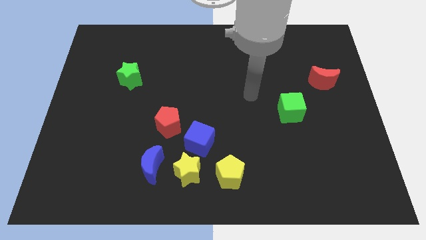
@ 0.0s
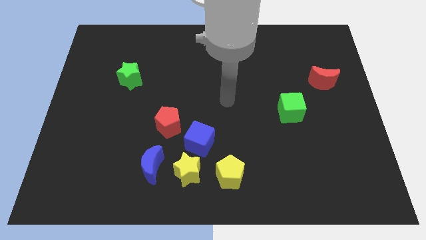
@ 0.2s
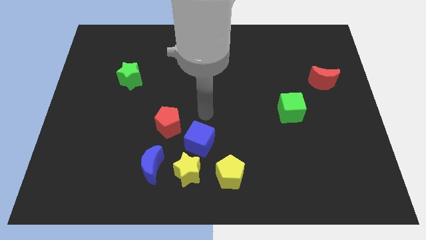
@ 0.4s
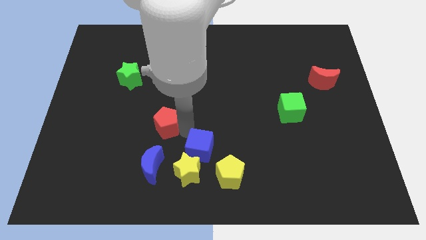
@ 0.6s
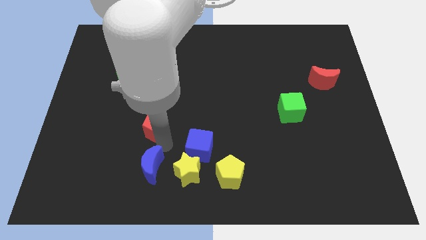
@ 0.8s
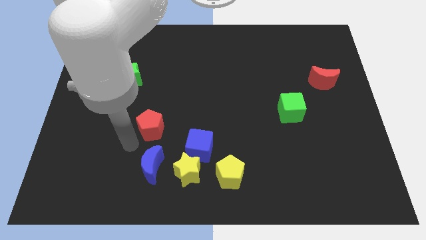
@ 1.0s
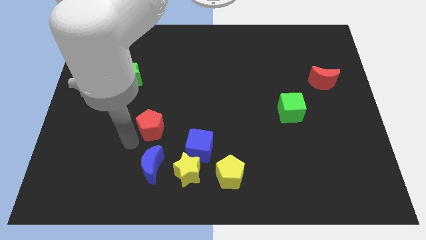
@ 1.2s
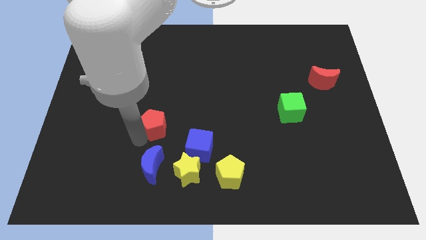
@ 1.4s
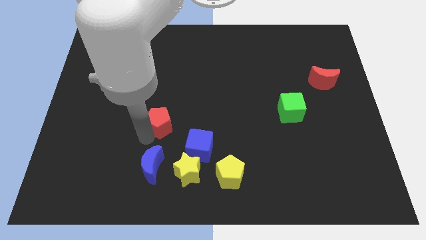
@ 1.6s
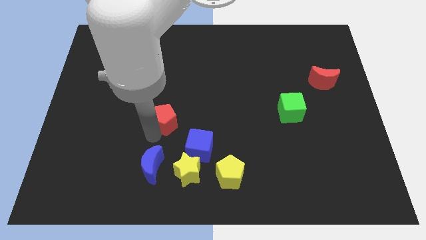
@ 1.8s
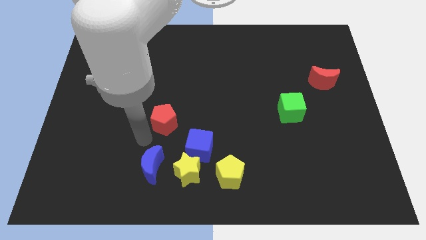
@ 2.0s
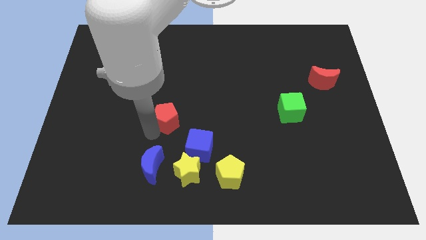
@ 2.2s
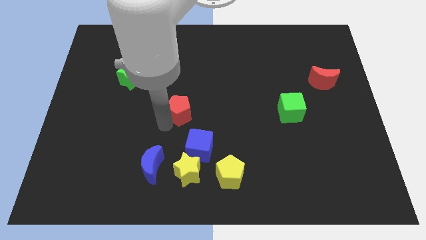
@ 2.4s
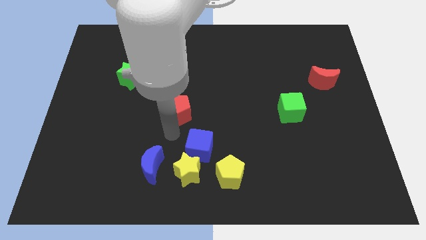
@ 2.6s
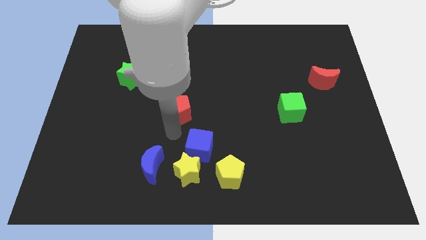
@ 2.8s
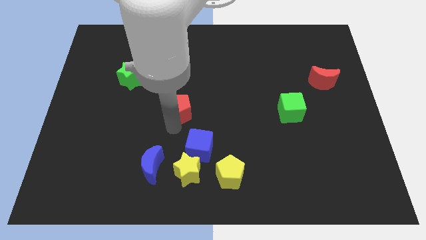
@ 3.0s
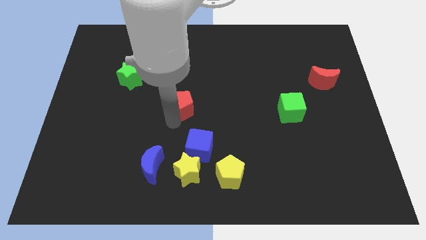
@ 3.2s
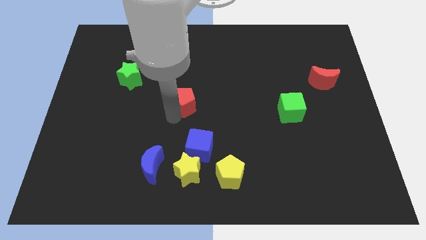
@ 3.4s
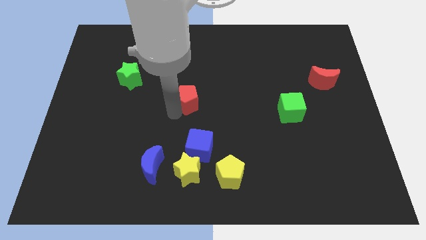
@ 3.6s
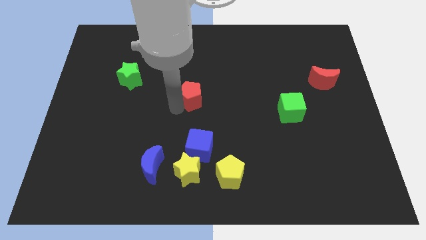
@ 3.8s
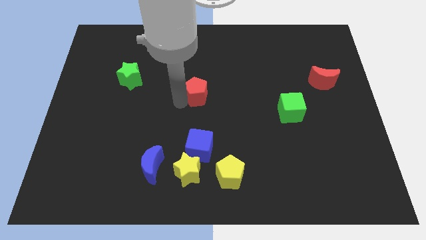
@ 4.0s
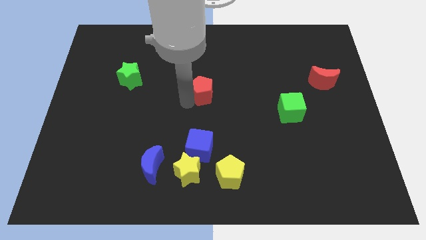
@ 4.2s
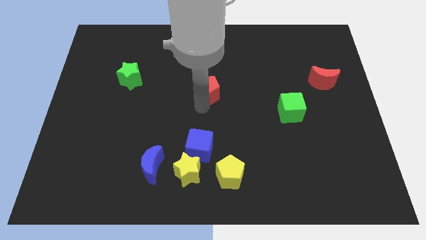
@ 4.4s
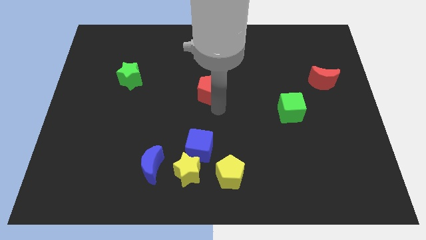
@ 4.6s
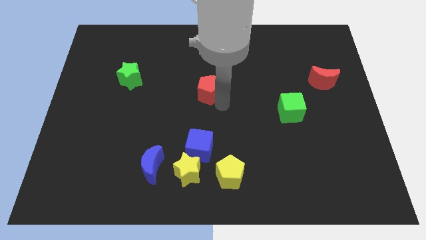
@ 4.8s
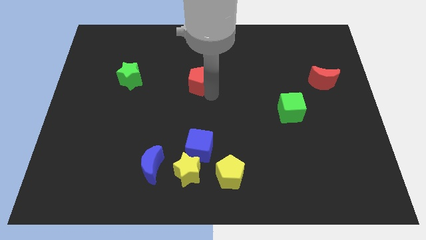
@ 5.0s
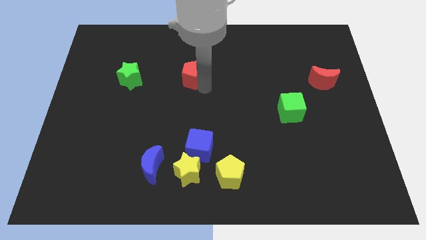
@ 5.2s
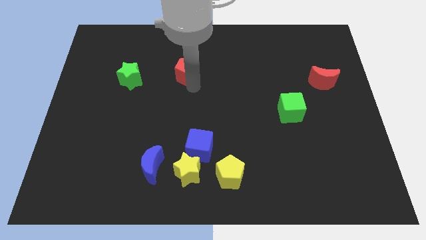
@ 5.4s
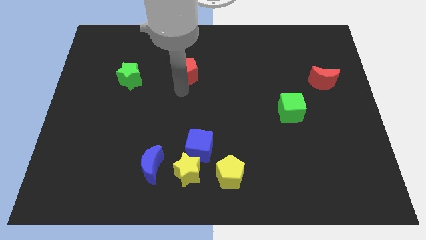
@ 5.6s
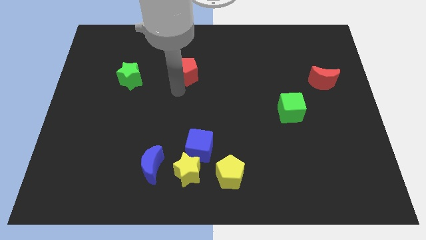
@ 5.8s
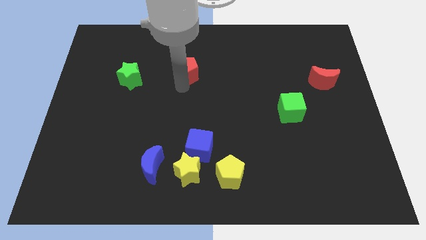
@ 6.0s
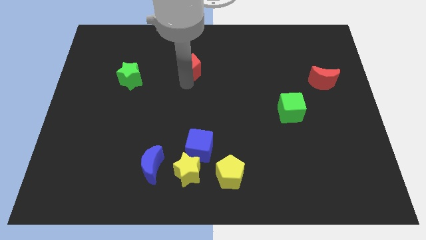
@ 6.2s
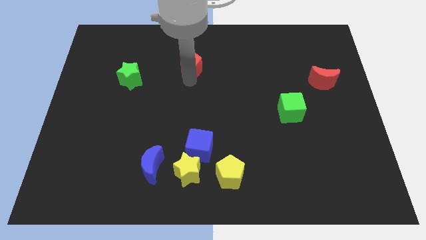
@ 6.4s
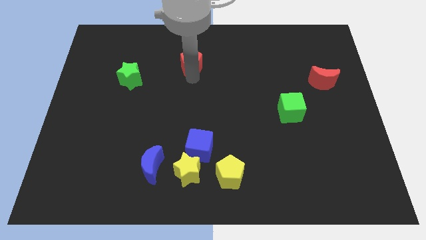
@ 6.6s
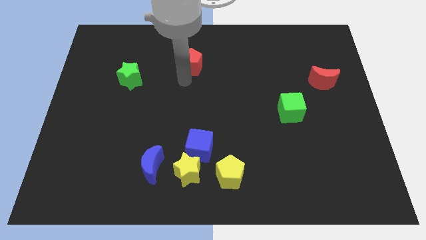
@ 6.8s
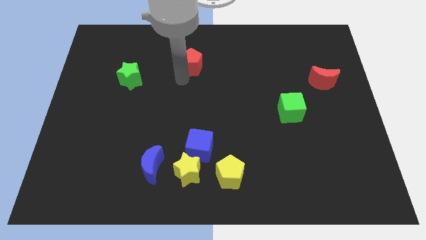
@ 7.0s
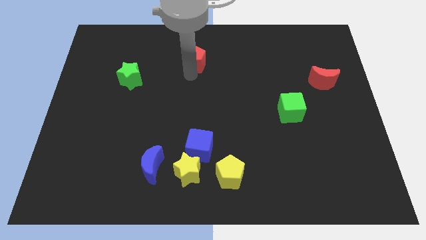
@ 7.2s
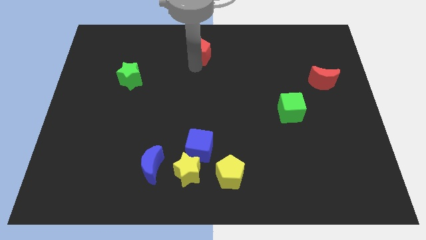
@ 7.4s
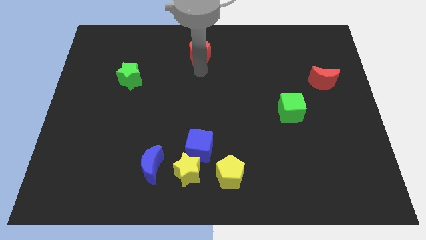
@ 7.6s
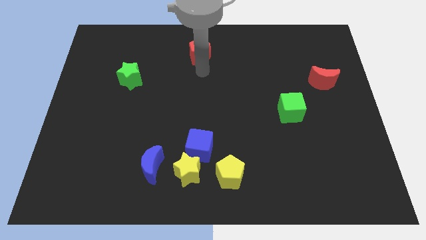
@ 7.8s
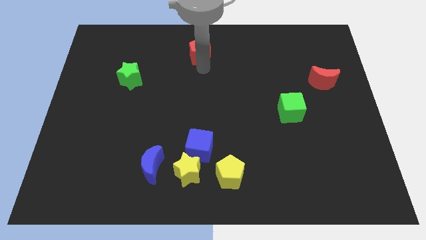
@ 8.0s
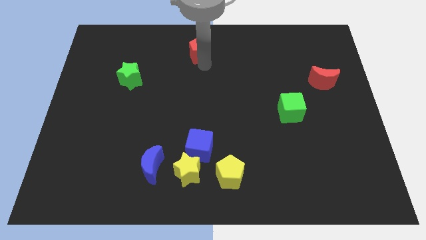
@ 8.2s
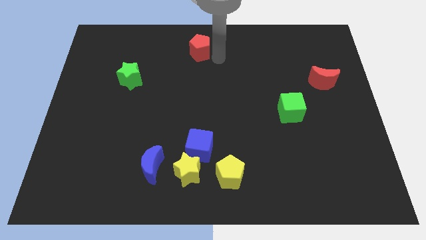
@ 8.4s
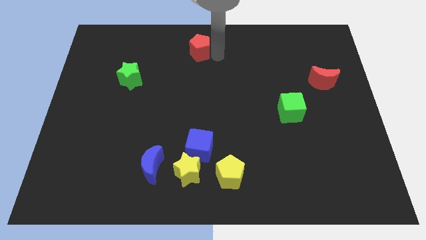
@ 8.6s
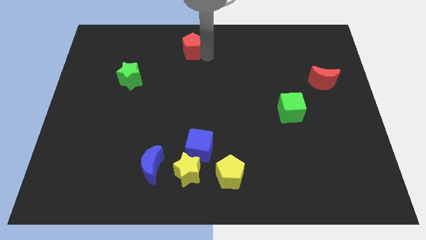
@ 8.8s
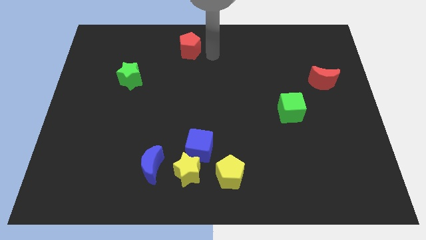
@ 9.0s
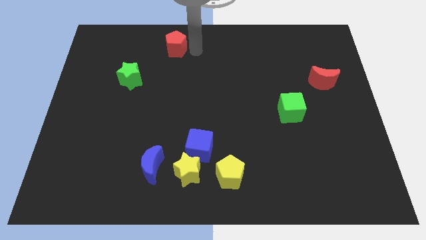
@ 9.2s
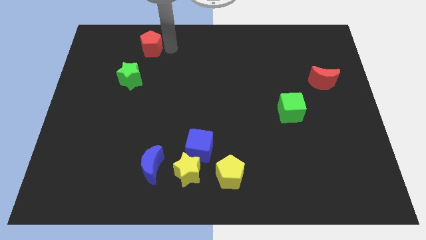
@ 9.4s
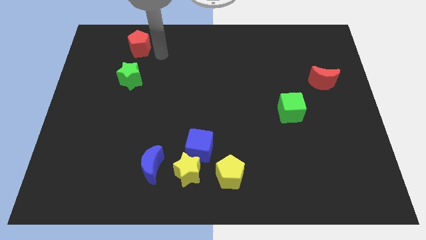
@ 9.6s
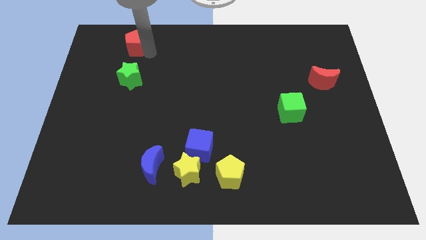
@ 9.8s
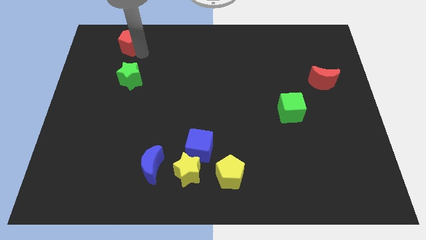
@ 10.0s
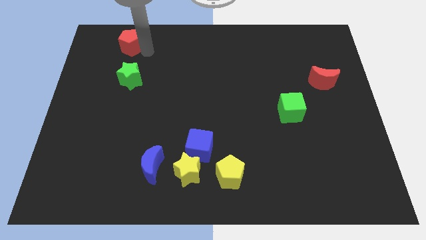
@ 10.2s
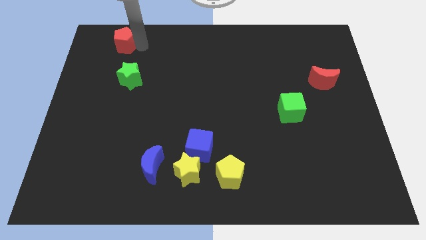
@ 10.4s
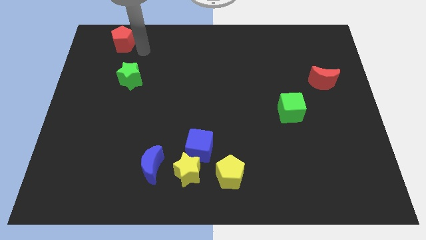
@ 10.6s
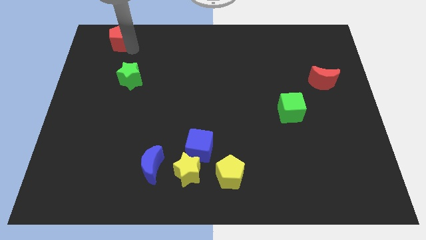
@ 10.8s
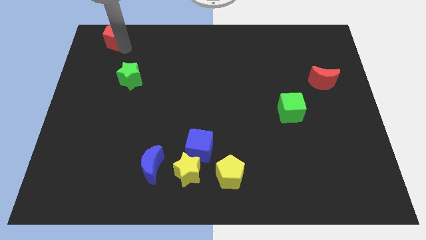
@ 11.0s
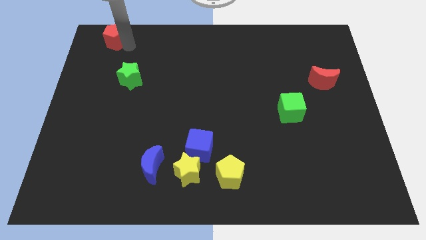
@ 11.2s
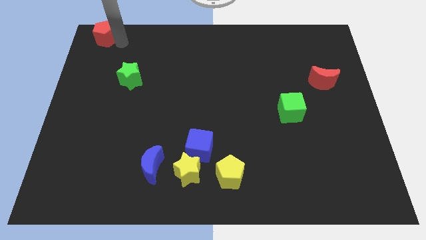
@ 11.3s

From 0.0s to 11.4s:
put the red pentagon to the top left of the board
